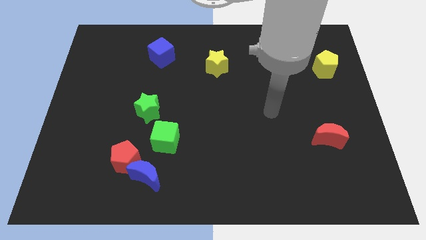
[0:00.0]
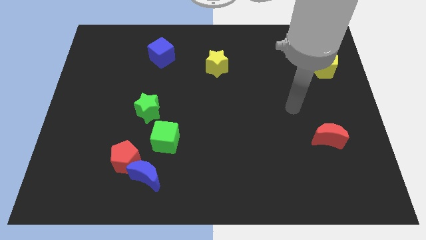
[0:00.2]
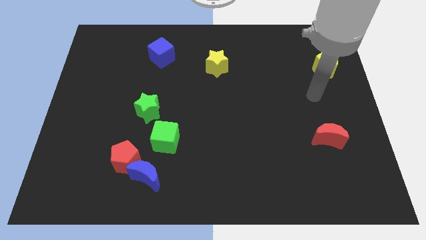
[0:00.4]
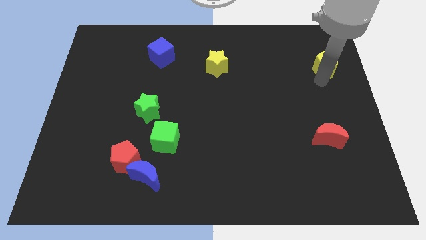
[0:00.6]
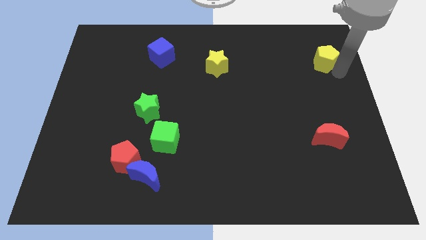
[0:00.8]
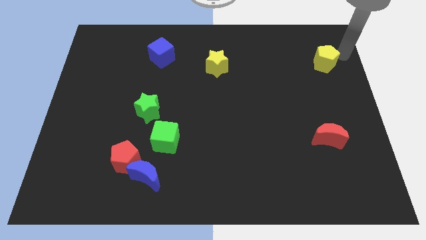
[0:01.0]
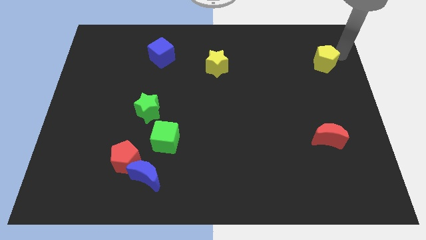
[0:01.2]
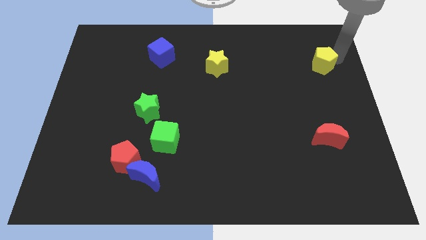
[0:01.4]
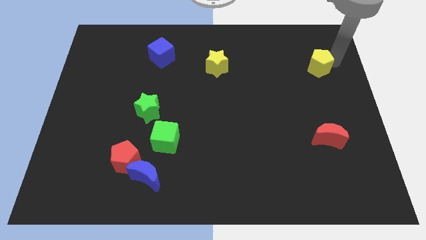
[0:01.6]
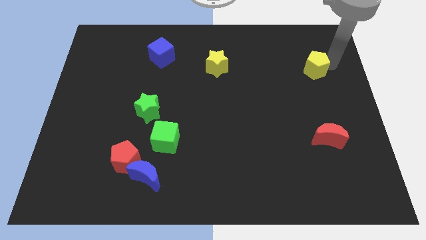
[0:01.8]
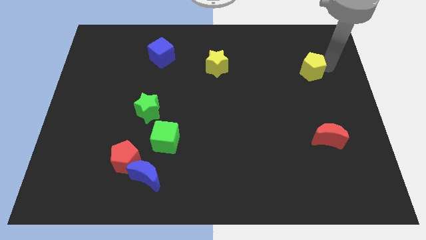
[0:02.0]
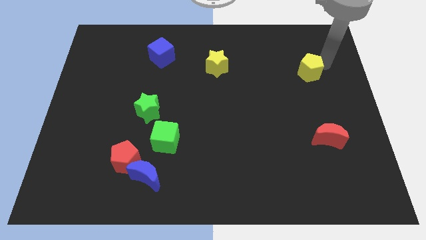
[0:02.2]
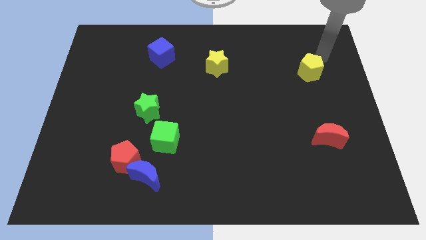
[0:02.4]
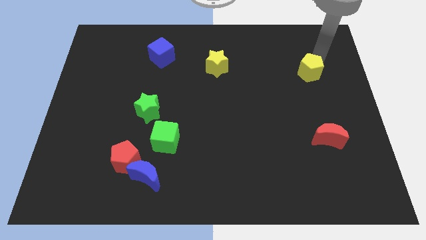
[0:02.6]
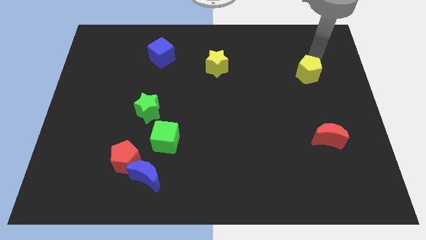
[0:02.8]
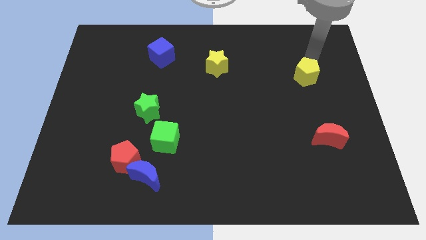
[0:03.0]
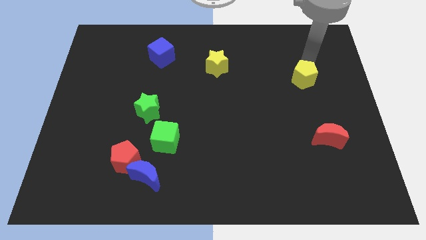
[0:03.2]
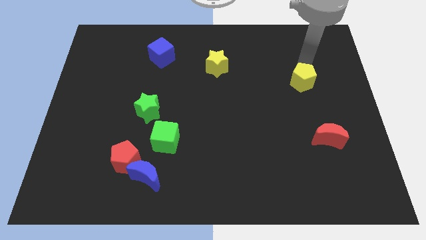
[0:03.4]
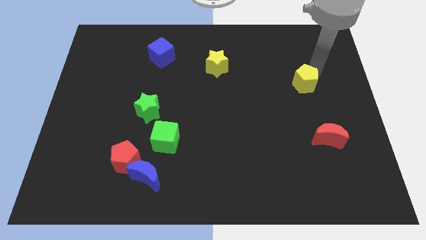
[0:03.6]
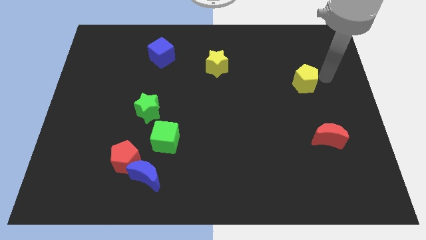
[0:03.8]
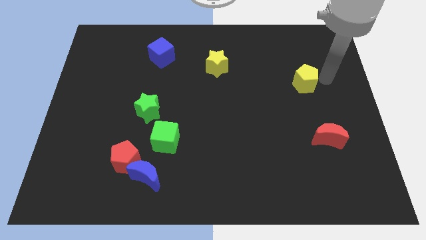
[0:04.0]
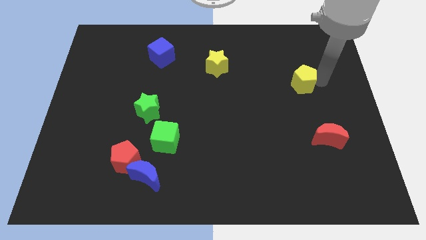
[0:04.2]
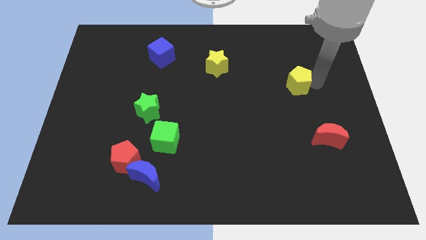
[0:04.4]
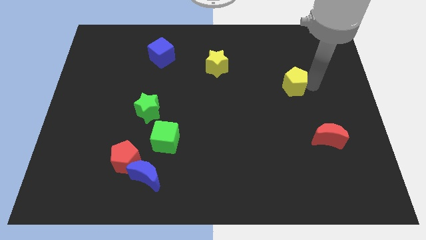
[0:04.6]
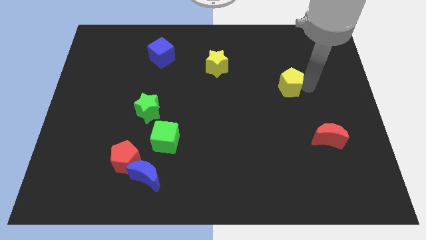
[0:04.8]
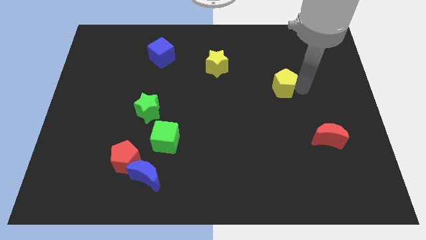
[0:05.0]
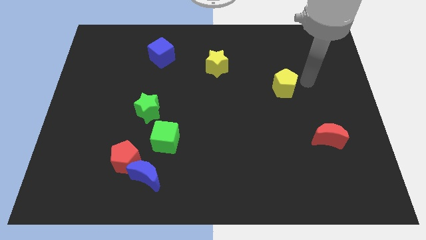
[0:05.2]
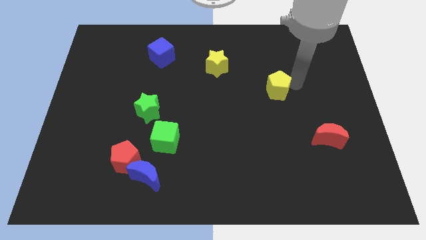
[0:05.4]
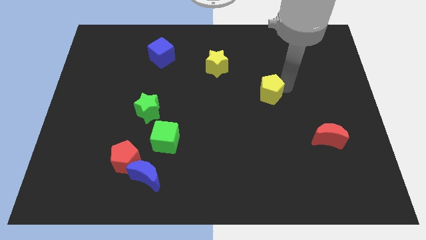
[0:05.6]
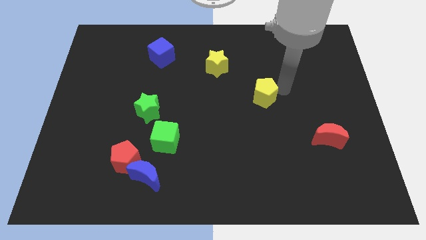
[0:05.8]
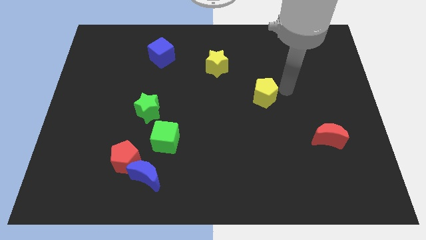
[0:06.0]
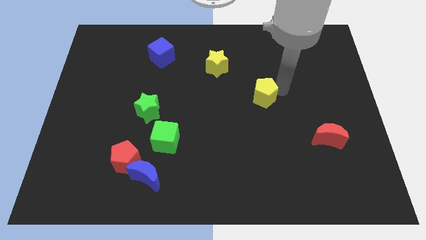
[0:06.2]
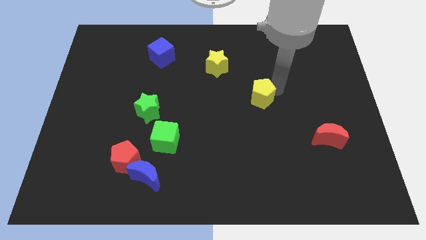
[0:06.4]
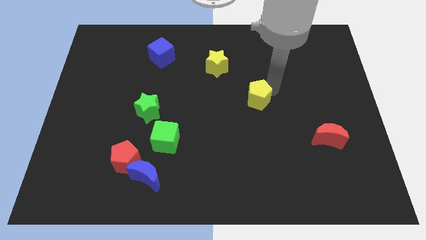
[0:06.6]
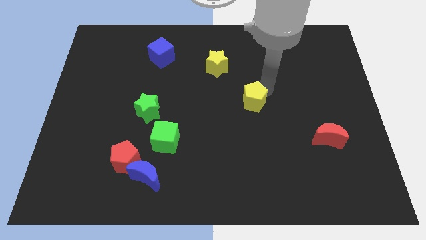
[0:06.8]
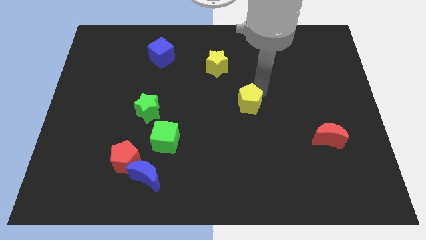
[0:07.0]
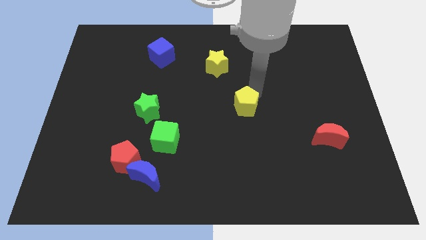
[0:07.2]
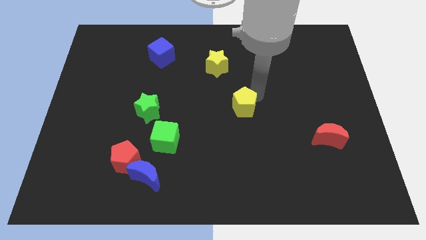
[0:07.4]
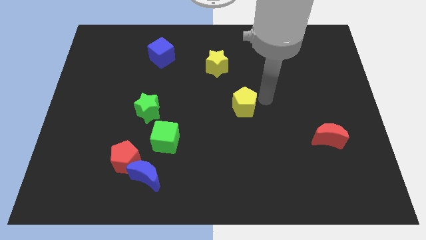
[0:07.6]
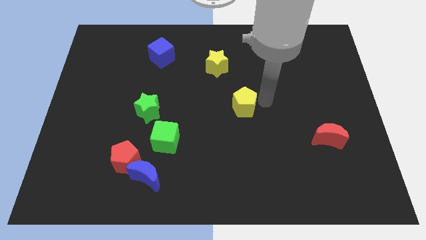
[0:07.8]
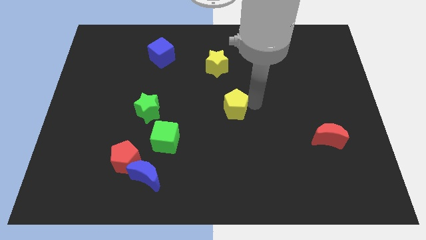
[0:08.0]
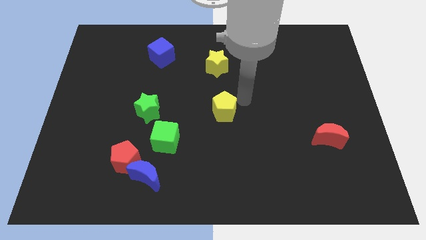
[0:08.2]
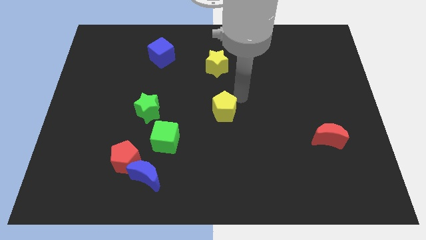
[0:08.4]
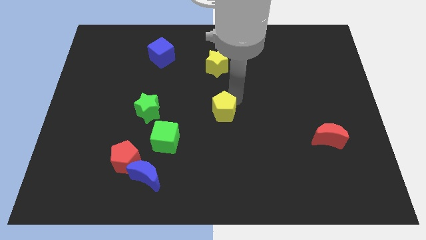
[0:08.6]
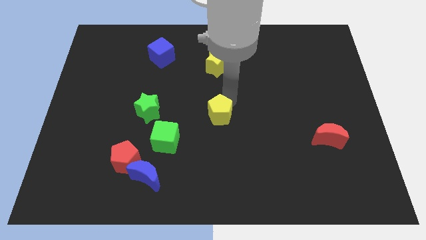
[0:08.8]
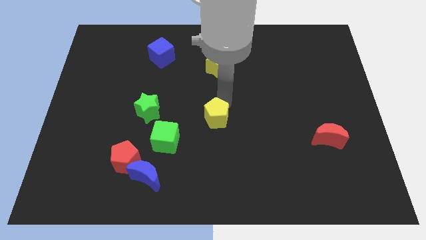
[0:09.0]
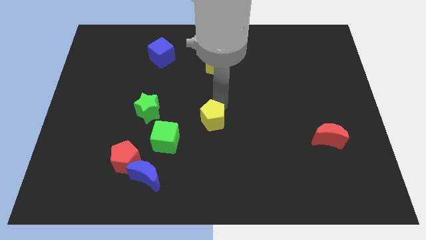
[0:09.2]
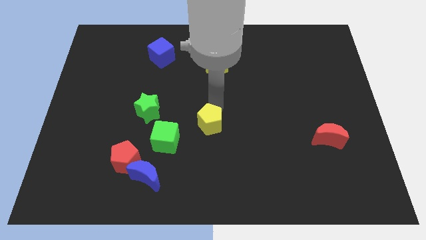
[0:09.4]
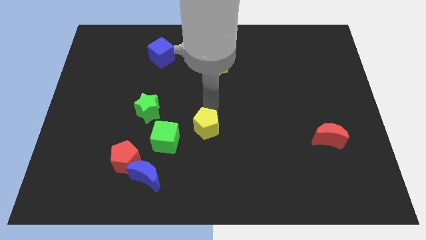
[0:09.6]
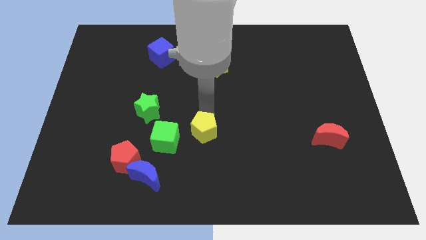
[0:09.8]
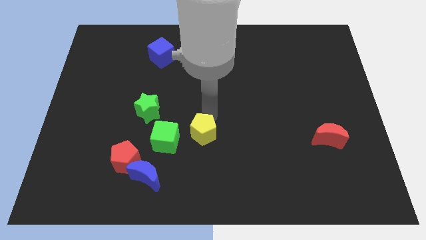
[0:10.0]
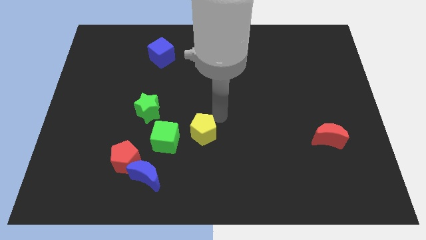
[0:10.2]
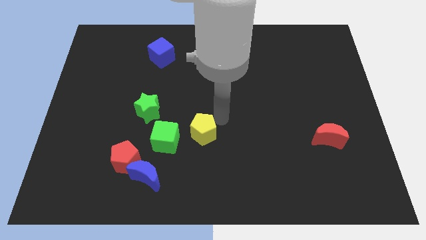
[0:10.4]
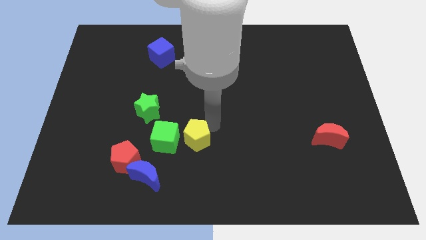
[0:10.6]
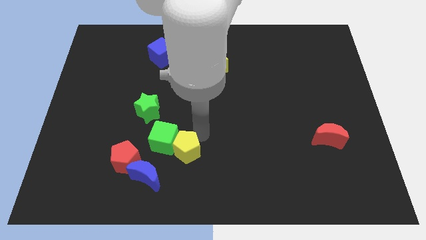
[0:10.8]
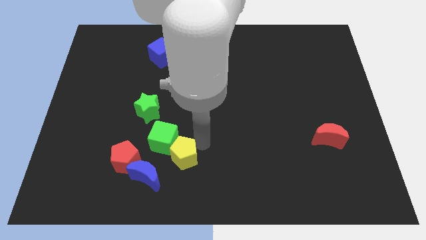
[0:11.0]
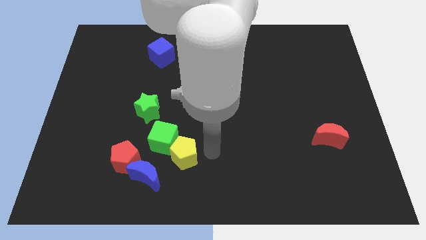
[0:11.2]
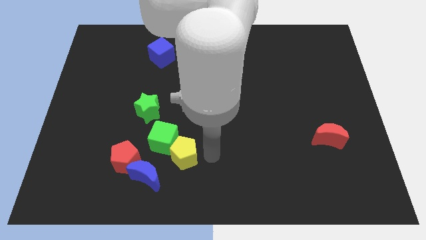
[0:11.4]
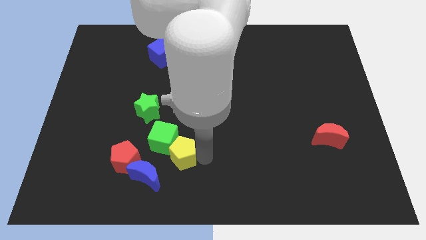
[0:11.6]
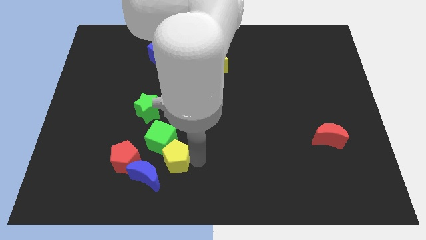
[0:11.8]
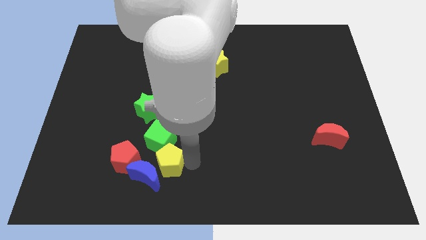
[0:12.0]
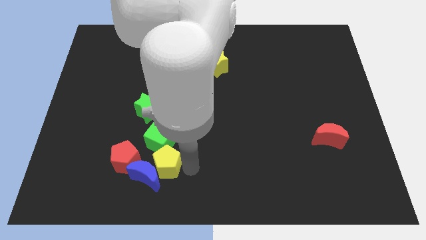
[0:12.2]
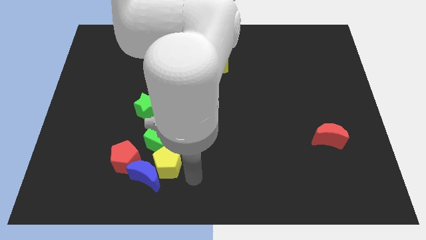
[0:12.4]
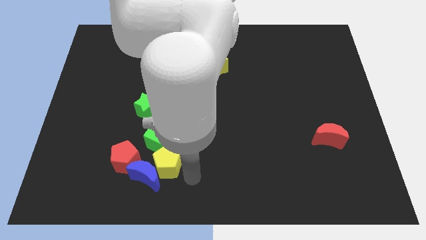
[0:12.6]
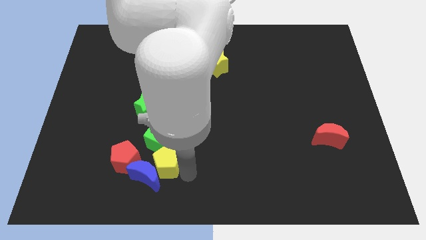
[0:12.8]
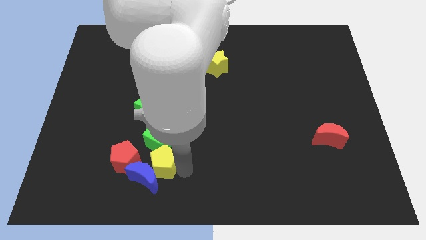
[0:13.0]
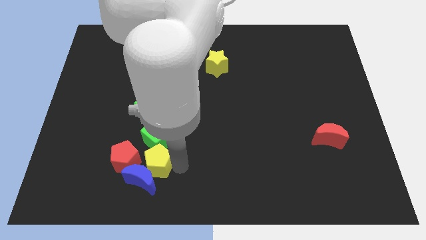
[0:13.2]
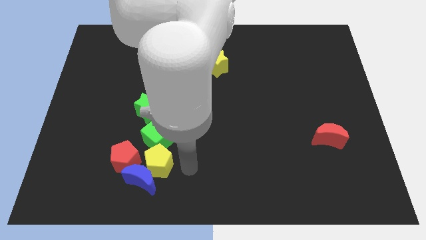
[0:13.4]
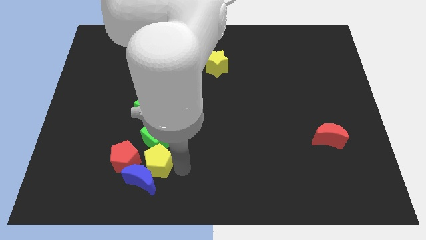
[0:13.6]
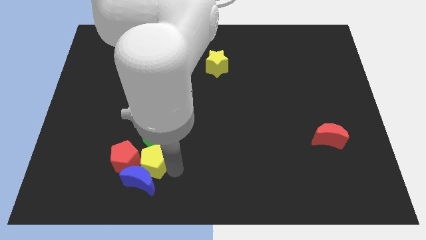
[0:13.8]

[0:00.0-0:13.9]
push the yellow pentagon close to the red pentagon
